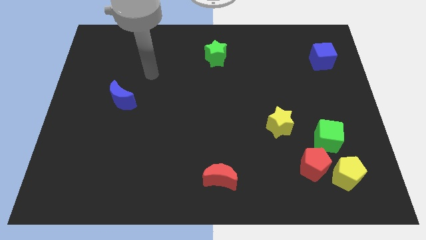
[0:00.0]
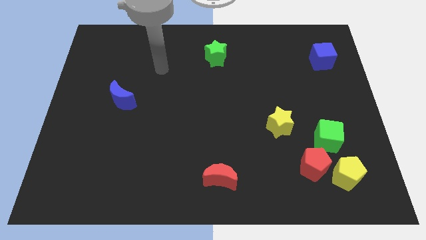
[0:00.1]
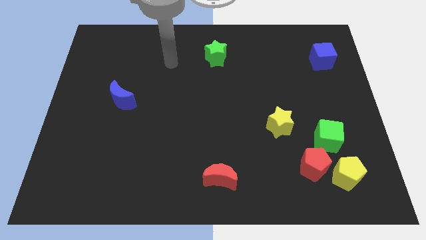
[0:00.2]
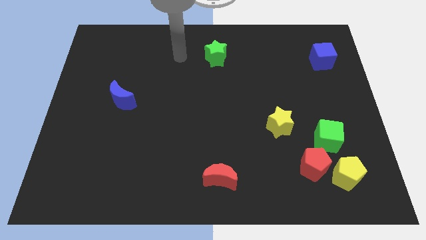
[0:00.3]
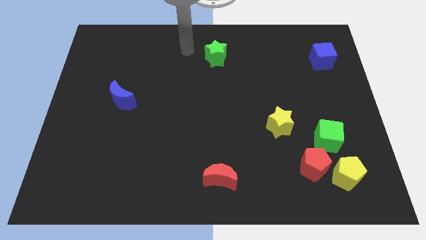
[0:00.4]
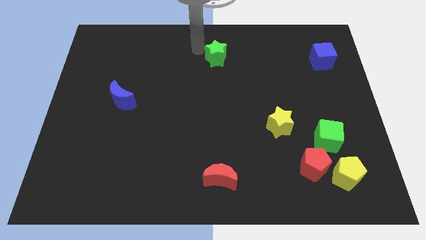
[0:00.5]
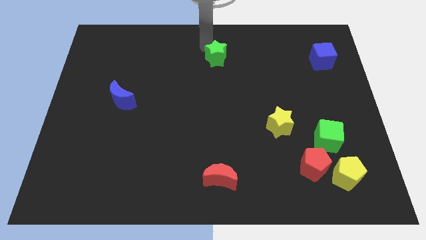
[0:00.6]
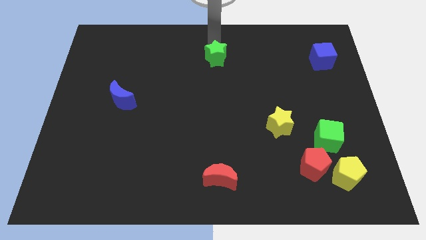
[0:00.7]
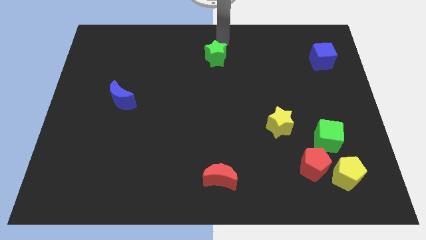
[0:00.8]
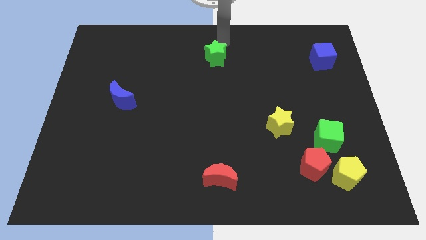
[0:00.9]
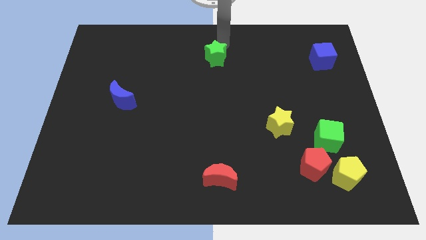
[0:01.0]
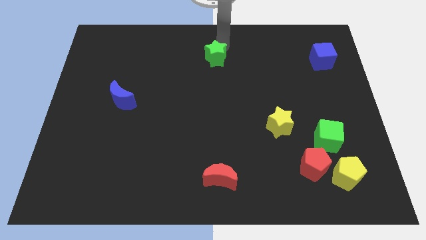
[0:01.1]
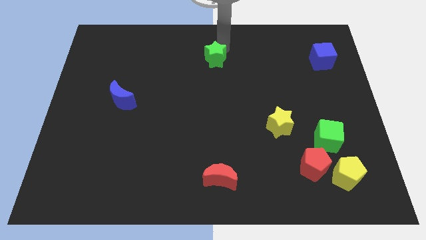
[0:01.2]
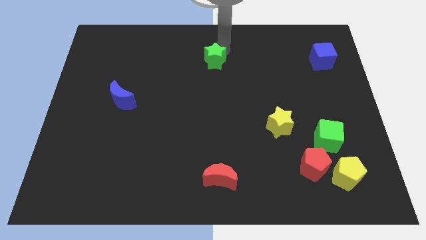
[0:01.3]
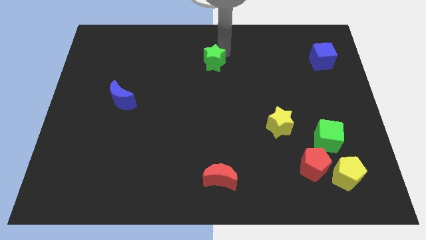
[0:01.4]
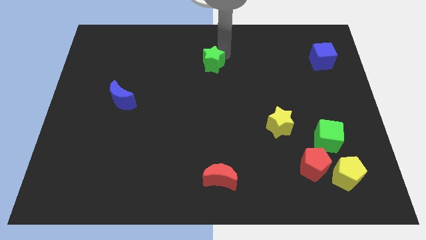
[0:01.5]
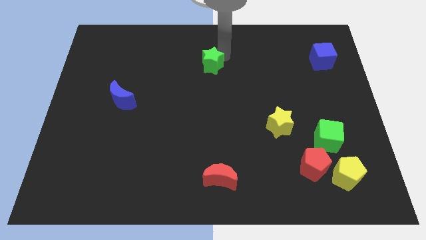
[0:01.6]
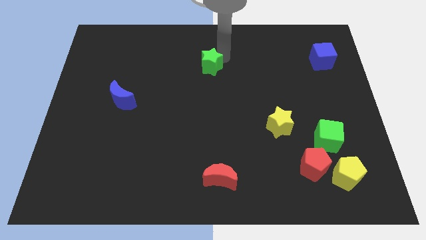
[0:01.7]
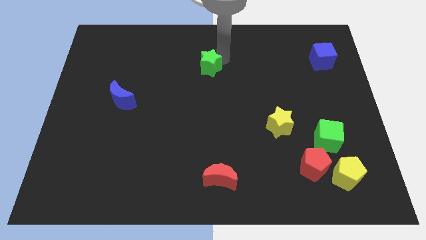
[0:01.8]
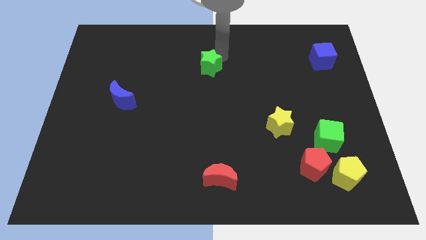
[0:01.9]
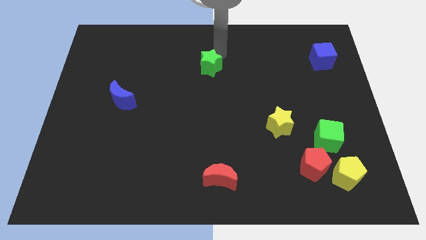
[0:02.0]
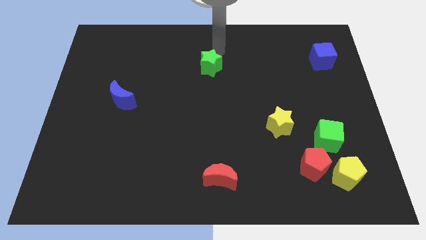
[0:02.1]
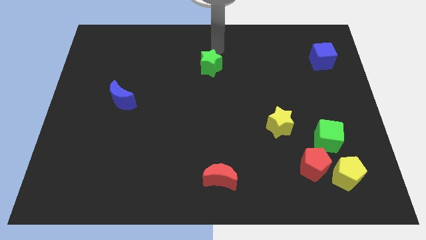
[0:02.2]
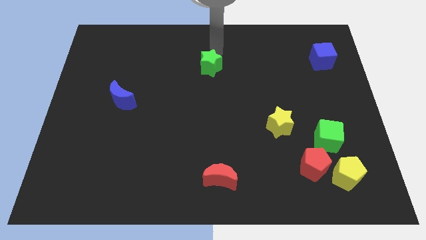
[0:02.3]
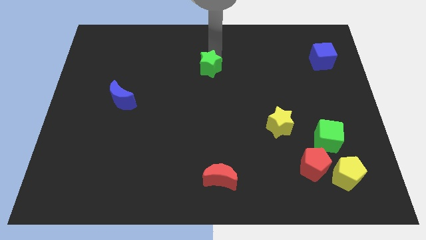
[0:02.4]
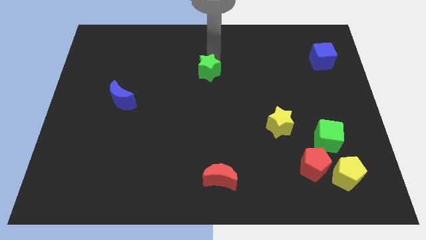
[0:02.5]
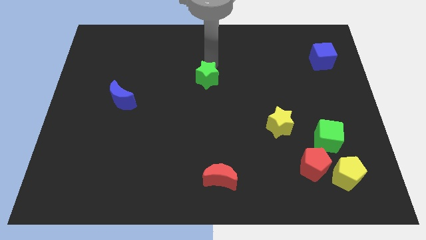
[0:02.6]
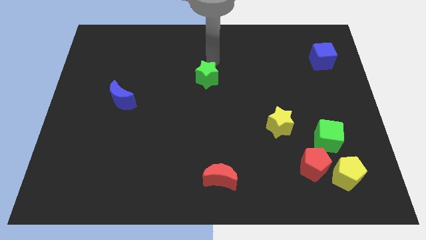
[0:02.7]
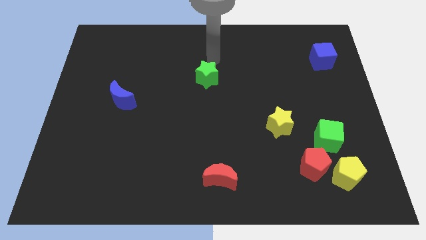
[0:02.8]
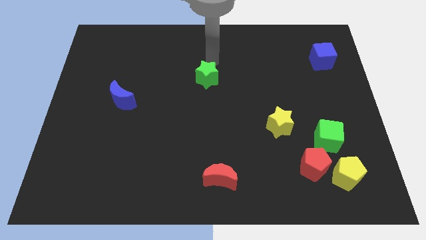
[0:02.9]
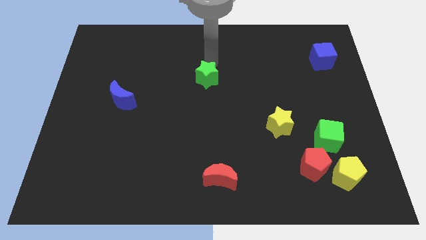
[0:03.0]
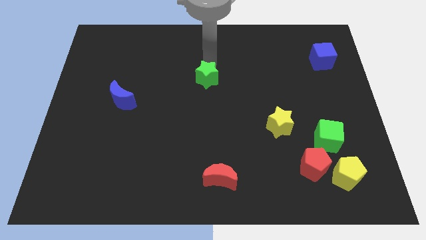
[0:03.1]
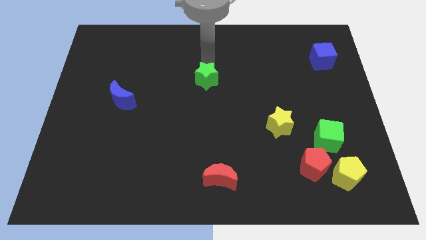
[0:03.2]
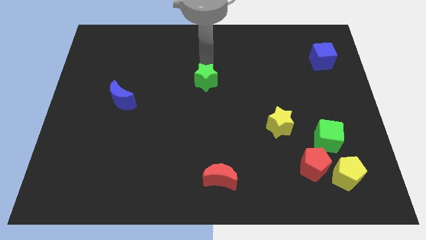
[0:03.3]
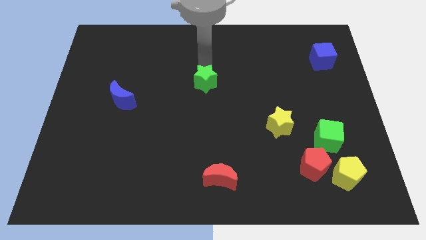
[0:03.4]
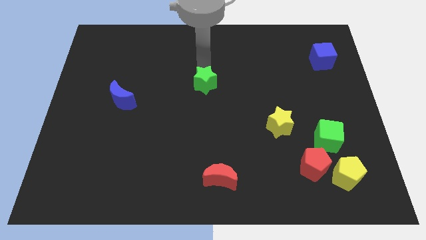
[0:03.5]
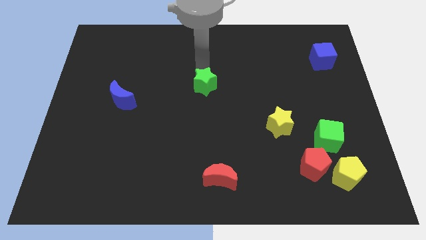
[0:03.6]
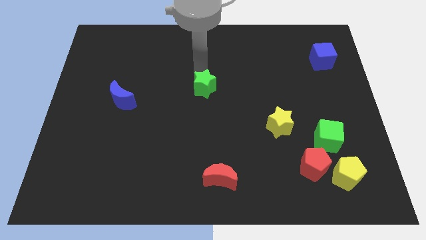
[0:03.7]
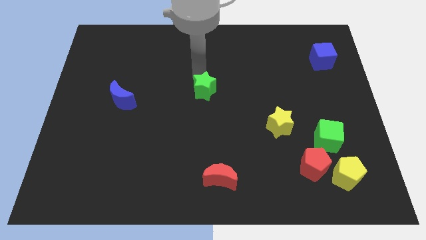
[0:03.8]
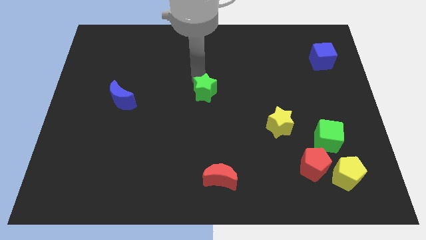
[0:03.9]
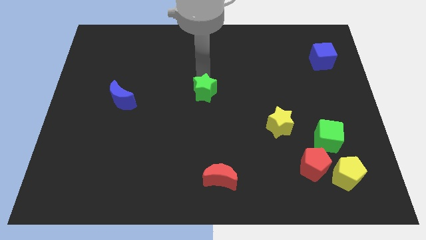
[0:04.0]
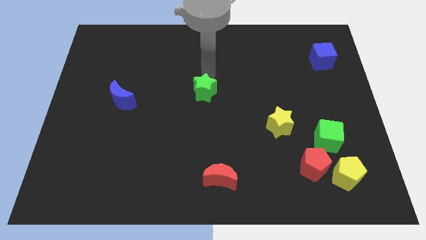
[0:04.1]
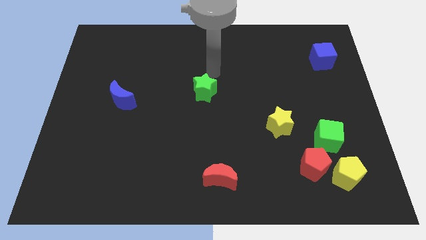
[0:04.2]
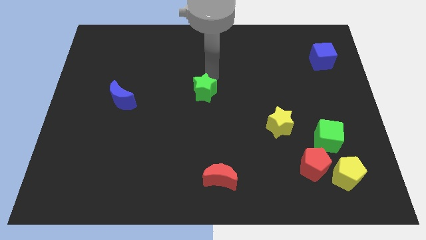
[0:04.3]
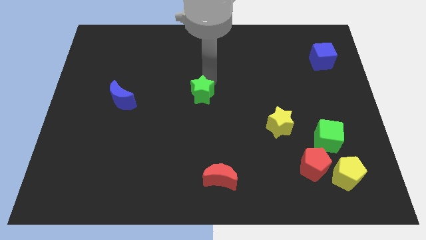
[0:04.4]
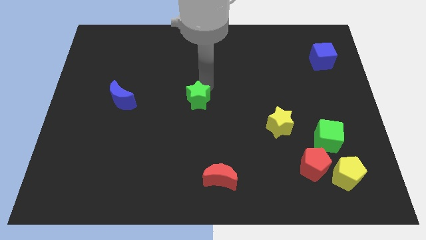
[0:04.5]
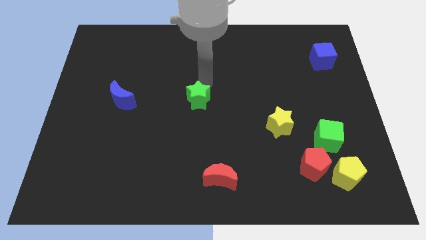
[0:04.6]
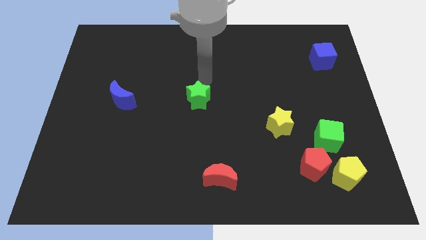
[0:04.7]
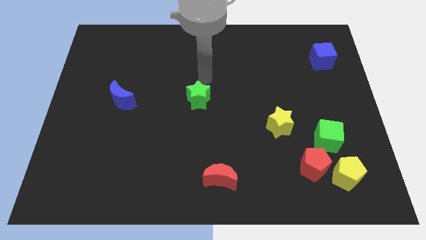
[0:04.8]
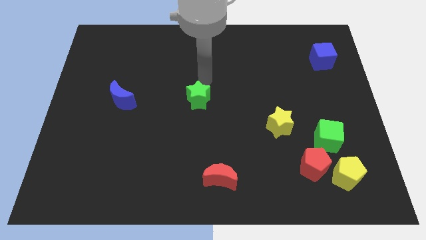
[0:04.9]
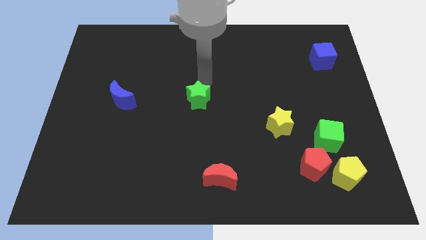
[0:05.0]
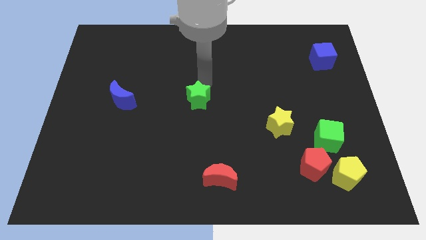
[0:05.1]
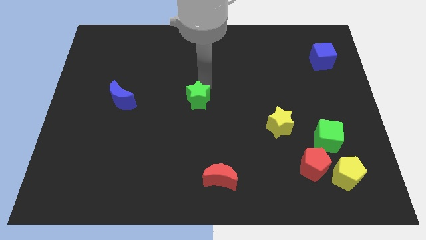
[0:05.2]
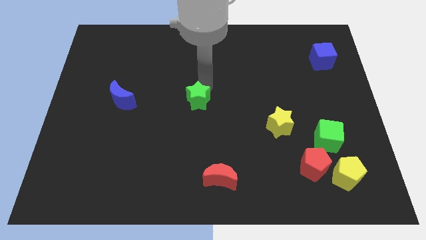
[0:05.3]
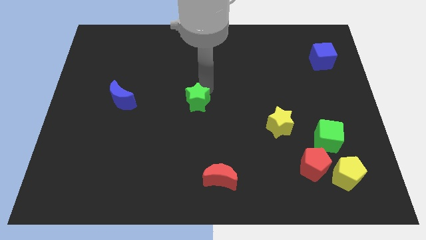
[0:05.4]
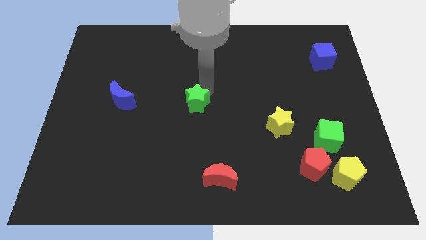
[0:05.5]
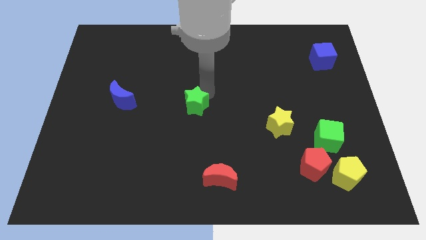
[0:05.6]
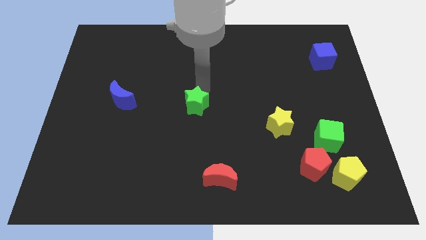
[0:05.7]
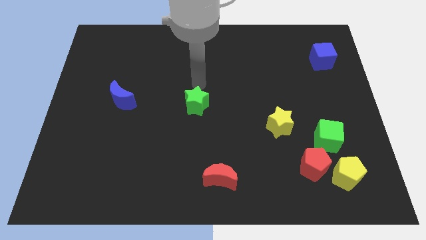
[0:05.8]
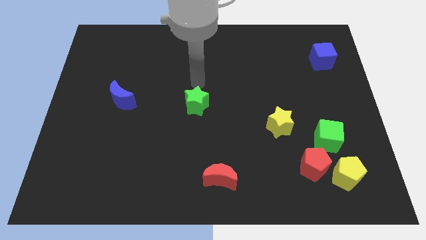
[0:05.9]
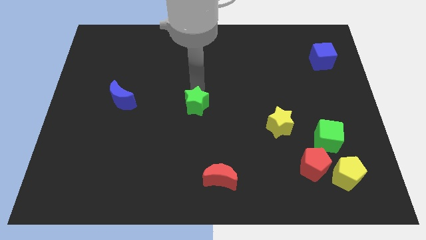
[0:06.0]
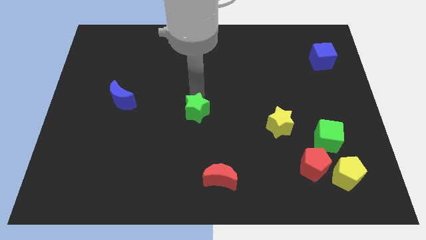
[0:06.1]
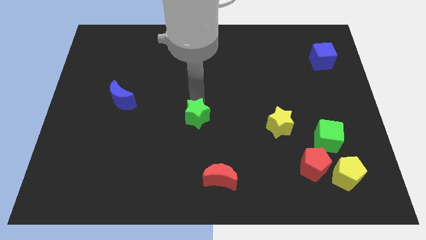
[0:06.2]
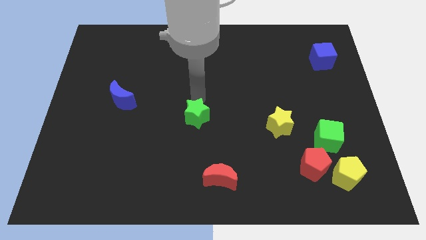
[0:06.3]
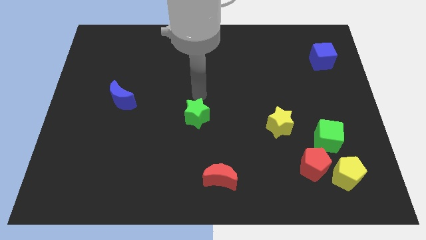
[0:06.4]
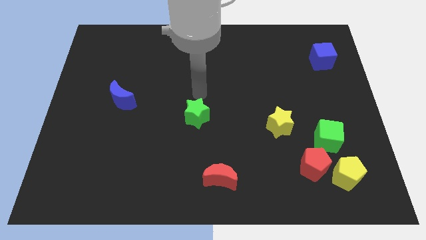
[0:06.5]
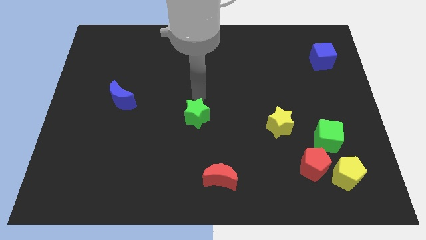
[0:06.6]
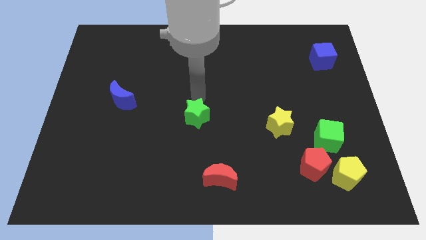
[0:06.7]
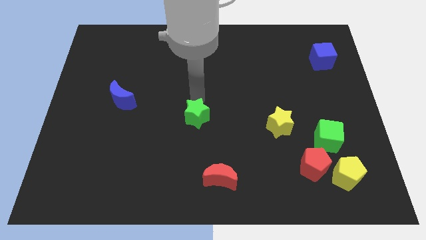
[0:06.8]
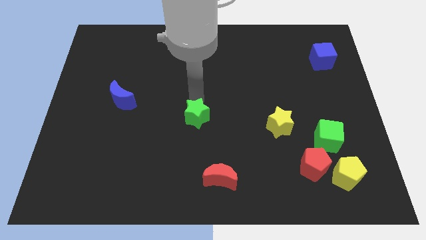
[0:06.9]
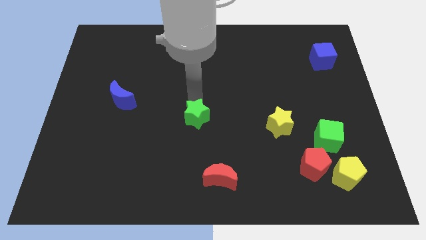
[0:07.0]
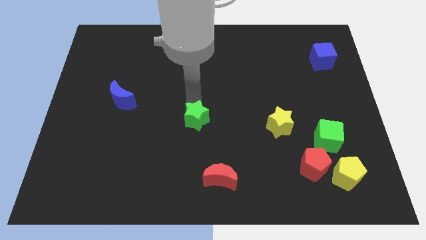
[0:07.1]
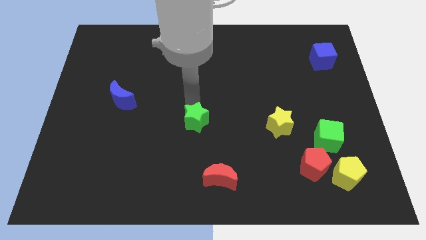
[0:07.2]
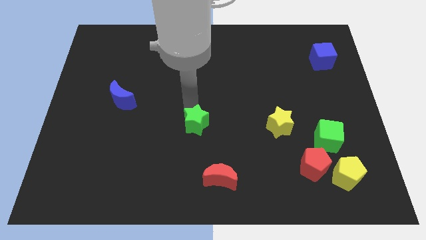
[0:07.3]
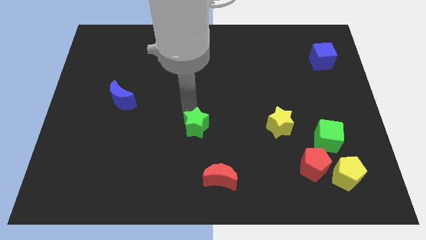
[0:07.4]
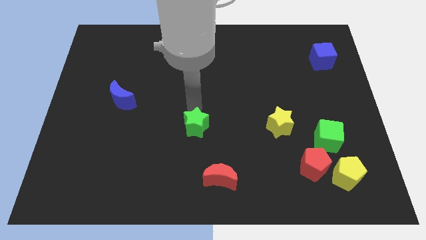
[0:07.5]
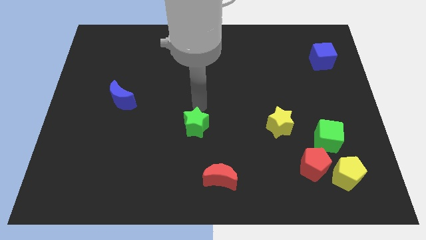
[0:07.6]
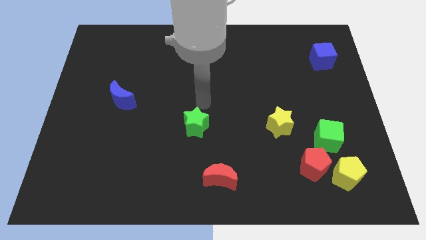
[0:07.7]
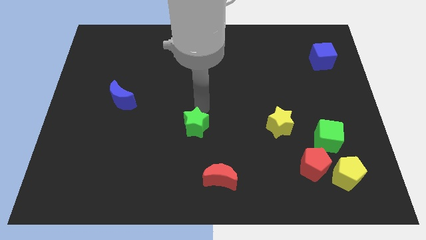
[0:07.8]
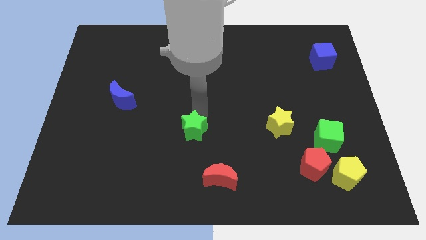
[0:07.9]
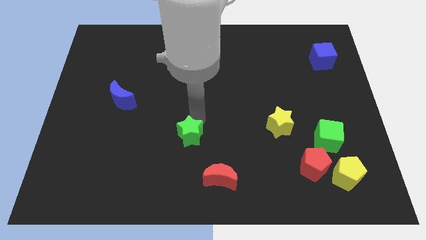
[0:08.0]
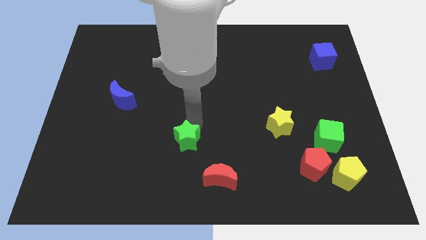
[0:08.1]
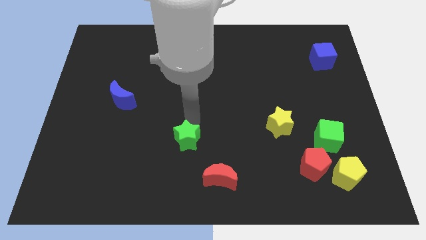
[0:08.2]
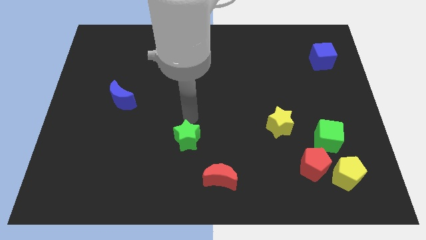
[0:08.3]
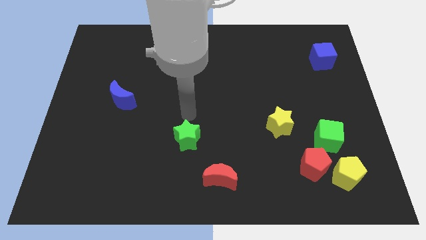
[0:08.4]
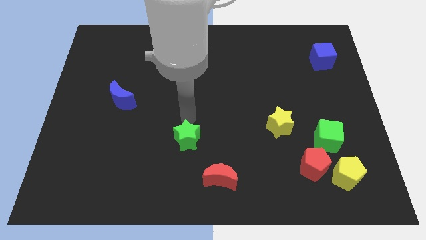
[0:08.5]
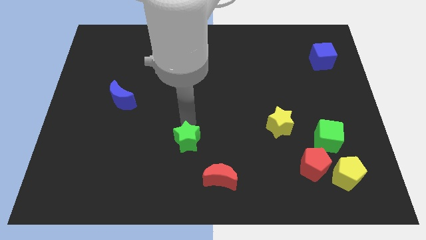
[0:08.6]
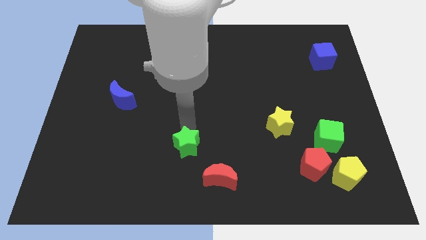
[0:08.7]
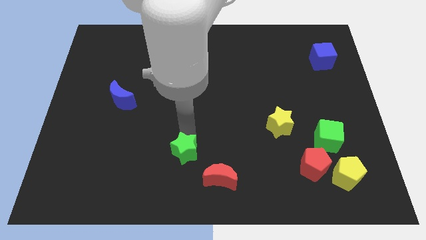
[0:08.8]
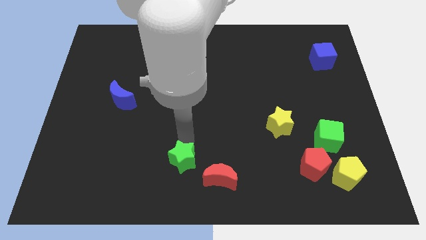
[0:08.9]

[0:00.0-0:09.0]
push the green star to the bottom
